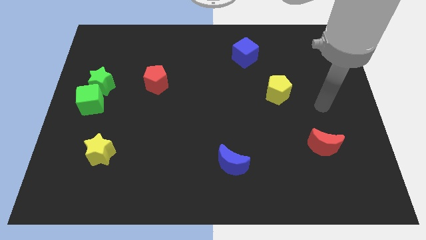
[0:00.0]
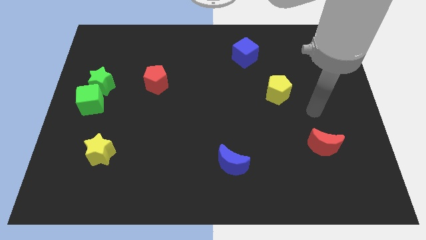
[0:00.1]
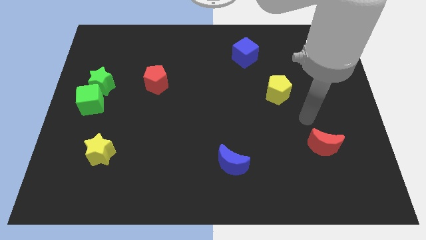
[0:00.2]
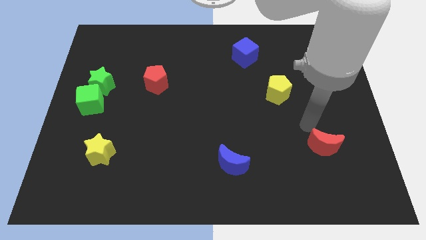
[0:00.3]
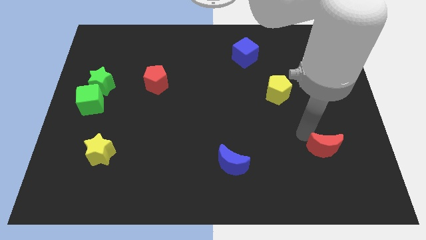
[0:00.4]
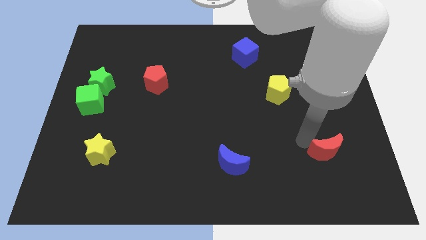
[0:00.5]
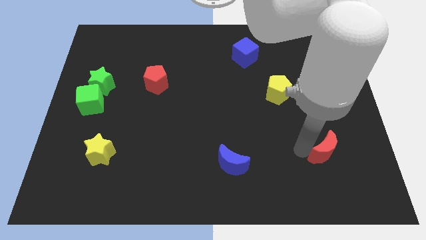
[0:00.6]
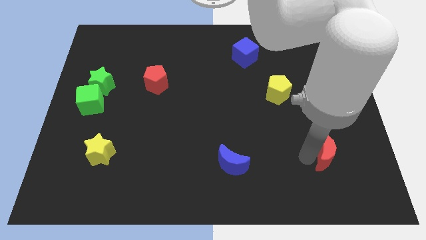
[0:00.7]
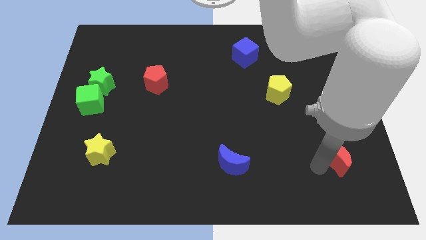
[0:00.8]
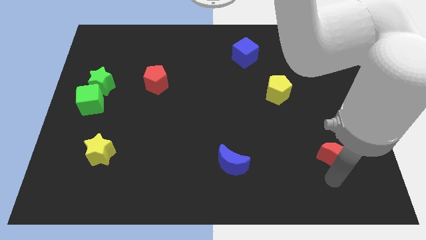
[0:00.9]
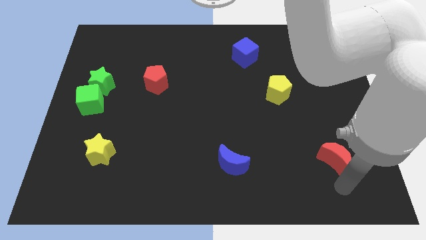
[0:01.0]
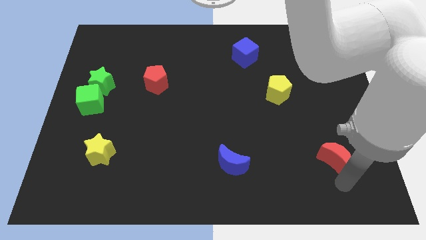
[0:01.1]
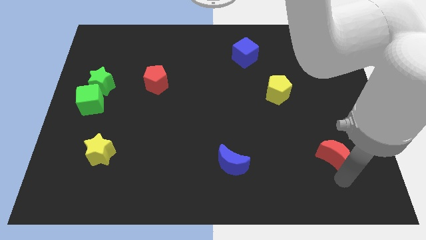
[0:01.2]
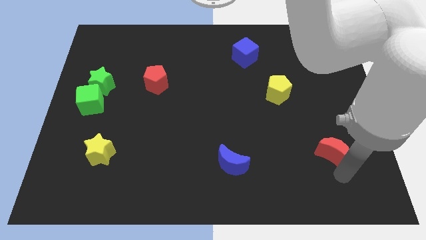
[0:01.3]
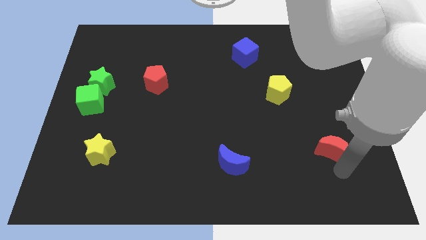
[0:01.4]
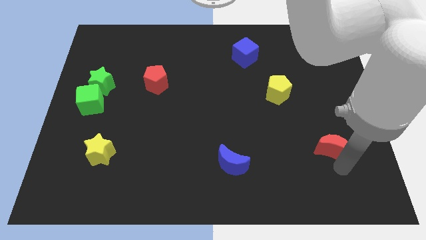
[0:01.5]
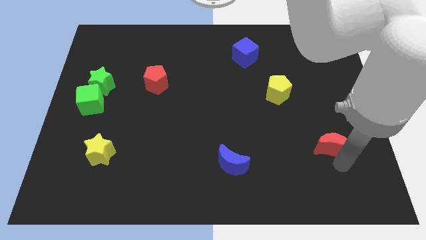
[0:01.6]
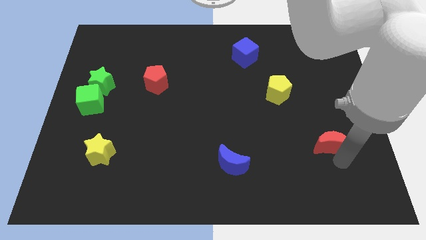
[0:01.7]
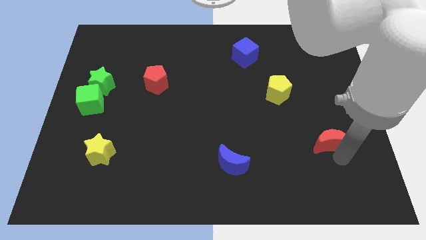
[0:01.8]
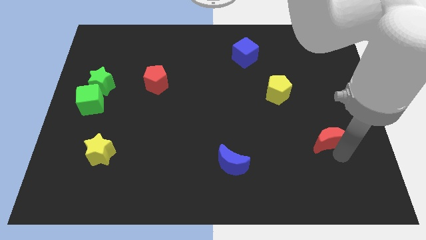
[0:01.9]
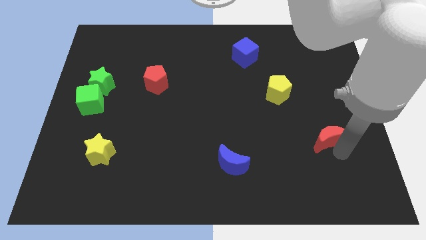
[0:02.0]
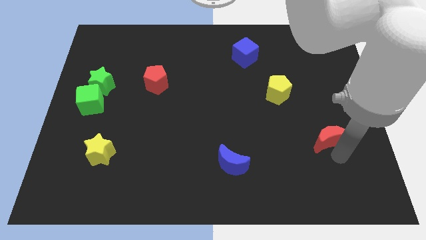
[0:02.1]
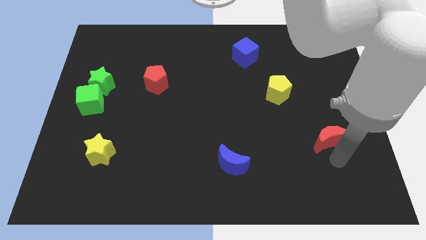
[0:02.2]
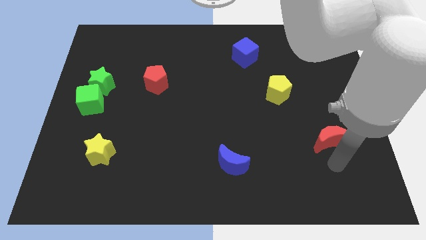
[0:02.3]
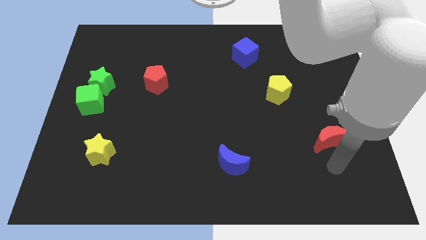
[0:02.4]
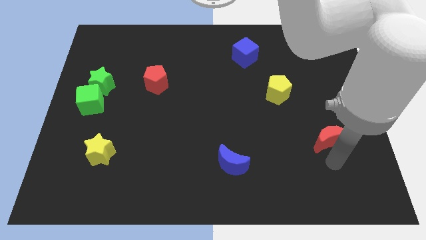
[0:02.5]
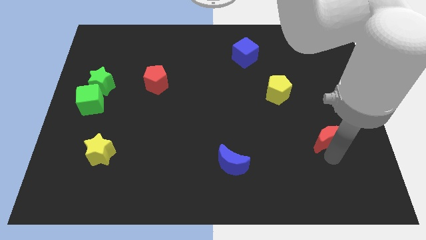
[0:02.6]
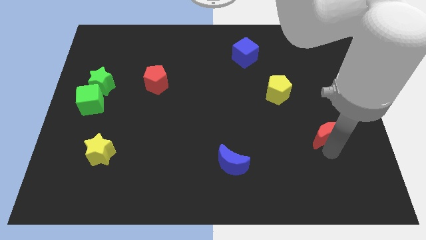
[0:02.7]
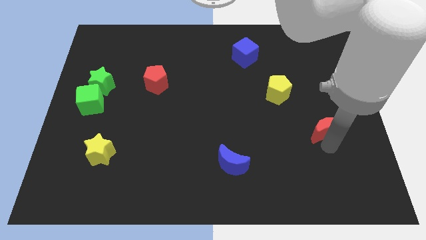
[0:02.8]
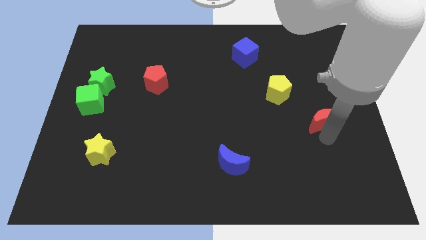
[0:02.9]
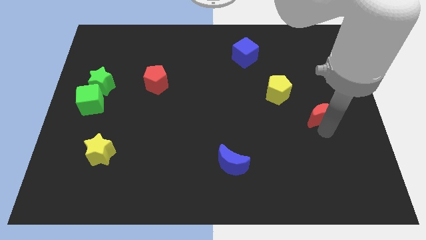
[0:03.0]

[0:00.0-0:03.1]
slightly move the red moon up

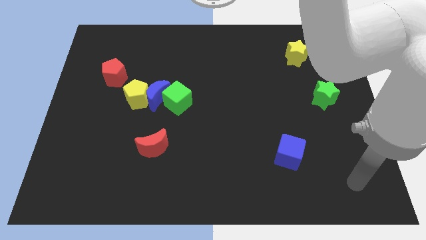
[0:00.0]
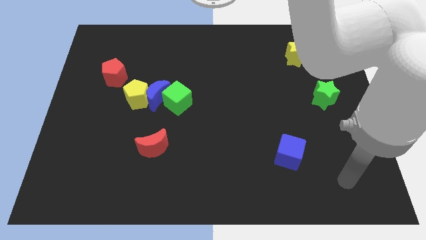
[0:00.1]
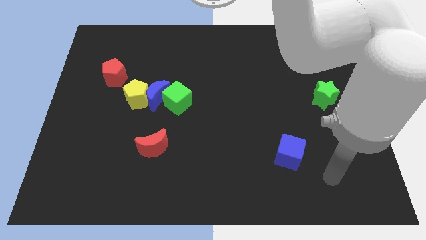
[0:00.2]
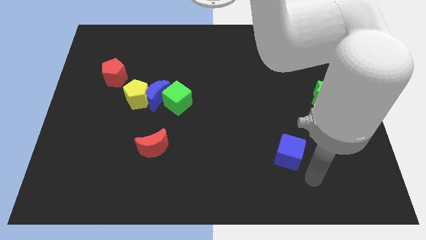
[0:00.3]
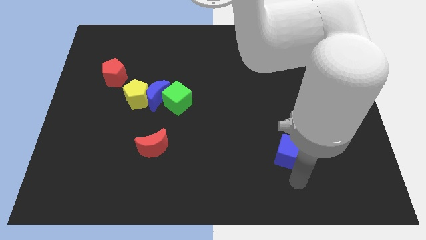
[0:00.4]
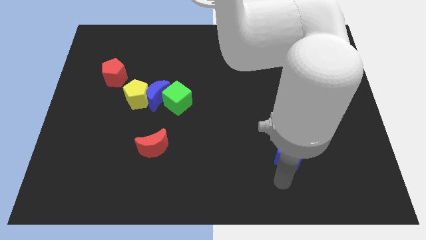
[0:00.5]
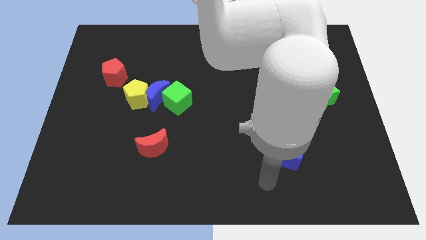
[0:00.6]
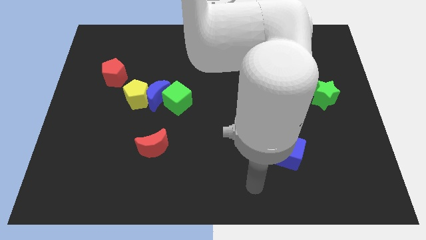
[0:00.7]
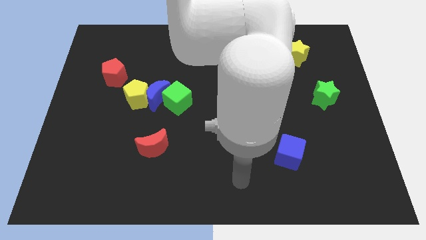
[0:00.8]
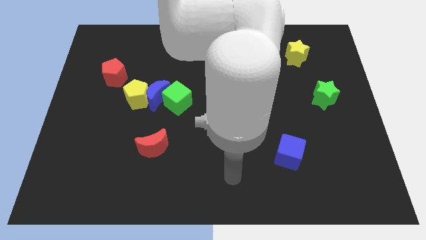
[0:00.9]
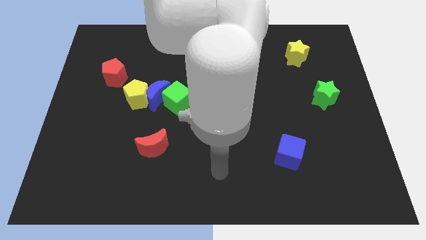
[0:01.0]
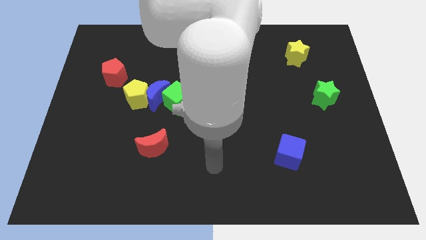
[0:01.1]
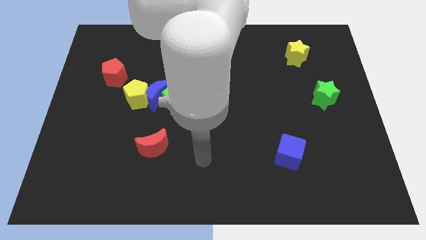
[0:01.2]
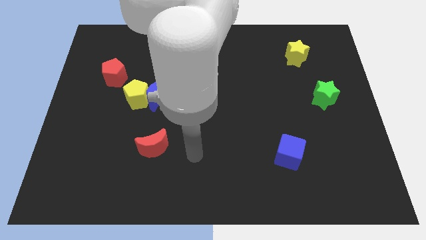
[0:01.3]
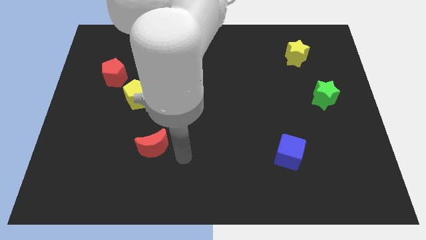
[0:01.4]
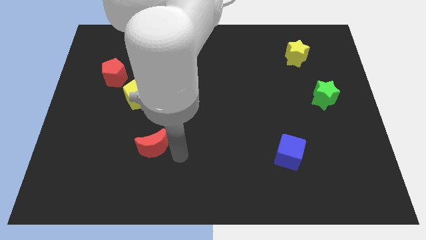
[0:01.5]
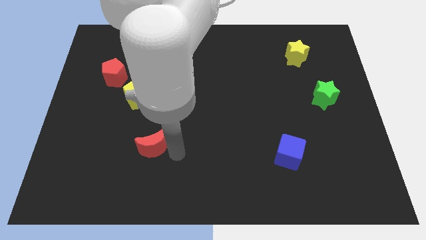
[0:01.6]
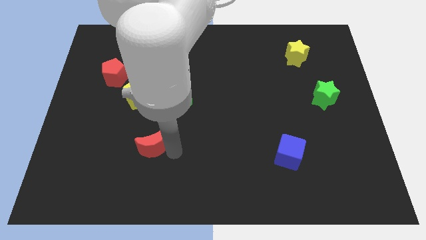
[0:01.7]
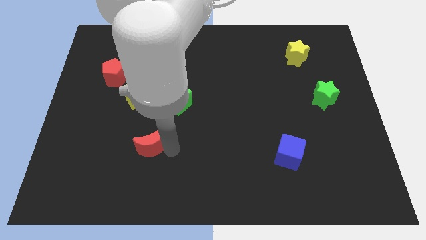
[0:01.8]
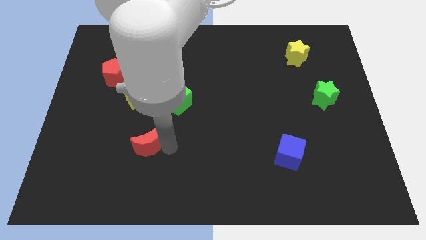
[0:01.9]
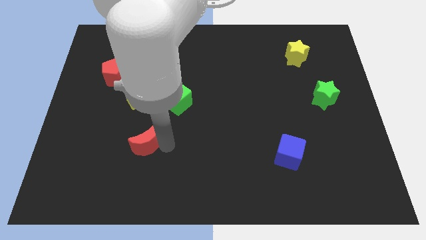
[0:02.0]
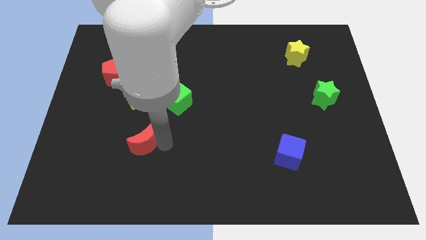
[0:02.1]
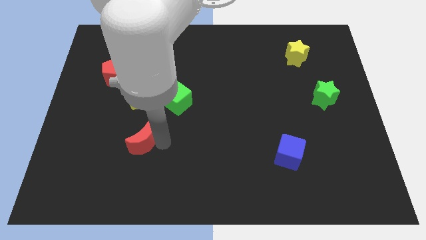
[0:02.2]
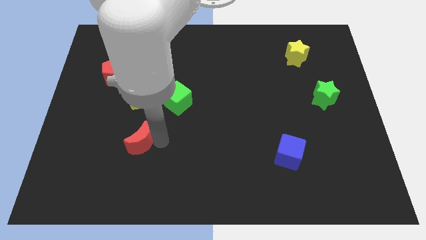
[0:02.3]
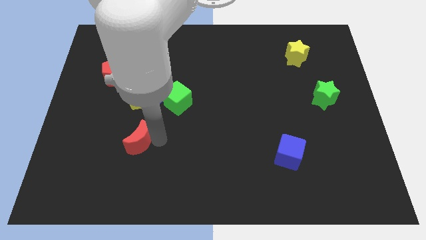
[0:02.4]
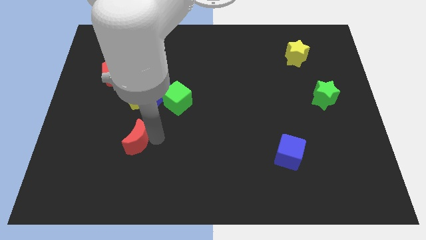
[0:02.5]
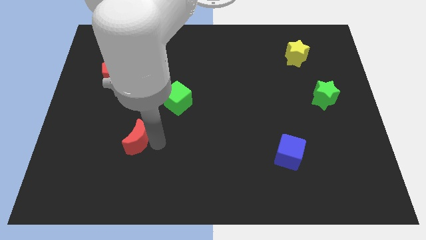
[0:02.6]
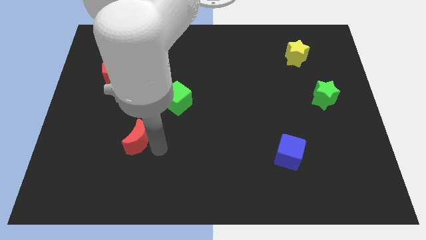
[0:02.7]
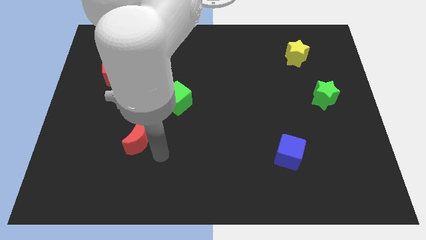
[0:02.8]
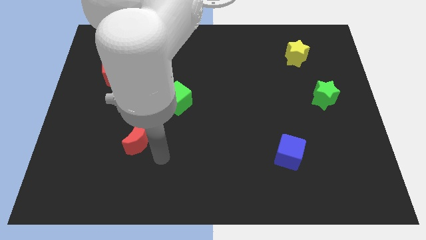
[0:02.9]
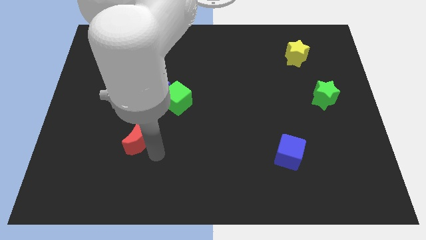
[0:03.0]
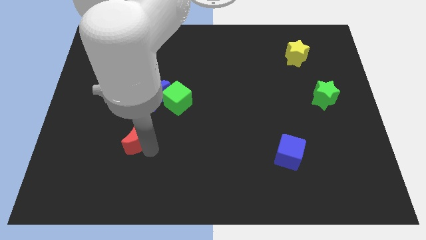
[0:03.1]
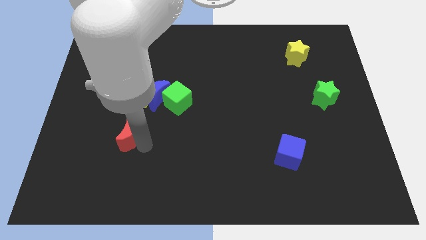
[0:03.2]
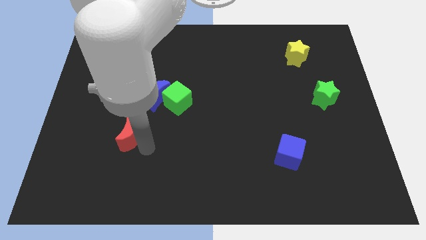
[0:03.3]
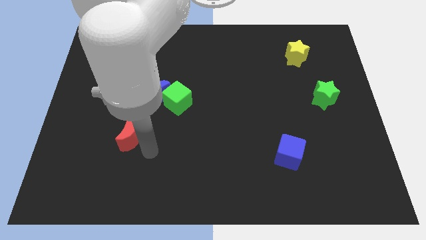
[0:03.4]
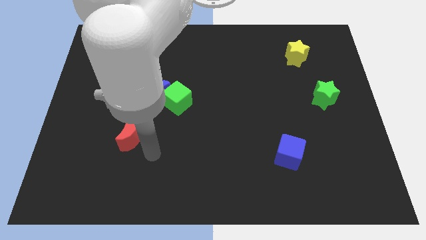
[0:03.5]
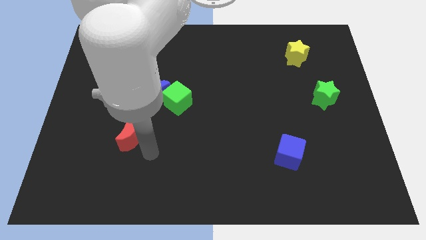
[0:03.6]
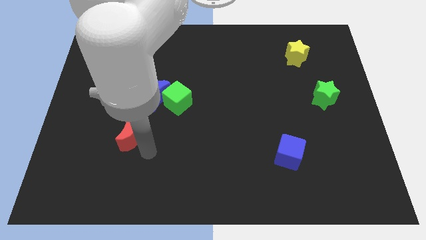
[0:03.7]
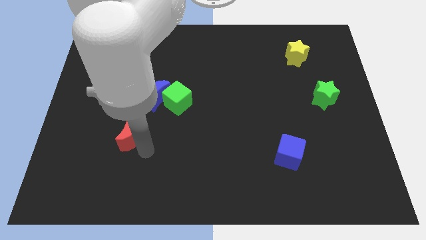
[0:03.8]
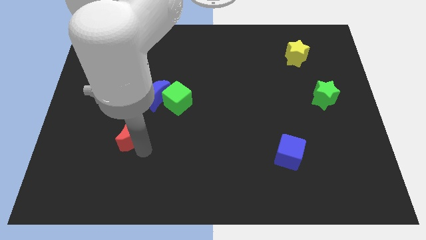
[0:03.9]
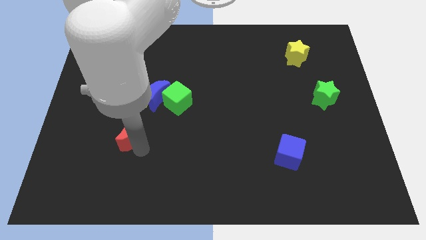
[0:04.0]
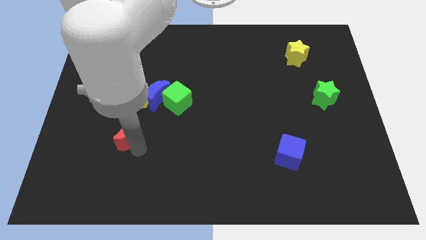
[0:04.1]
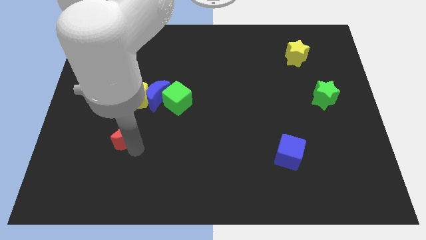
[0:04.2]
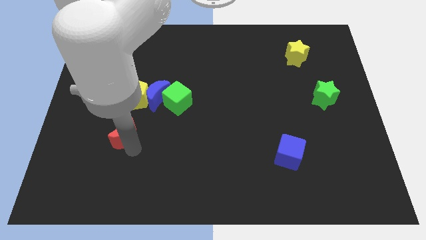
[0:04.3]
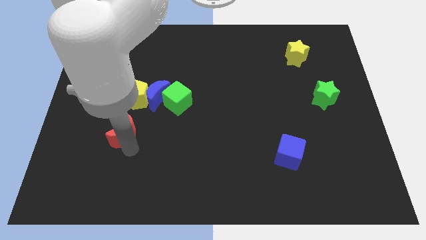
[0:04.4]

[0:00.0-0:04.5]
slide the red moon slightly upwards and left diagonally
